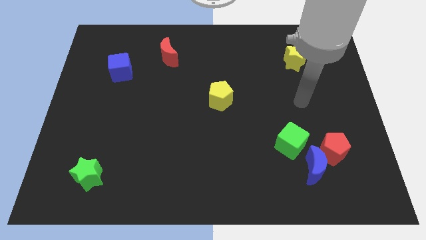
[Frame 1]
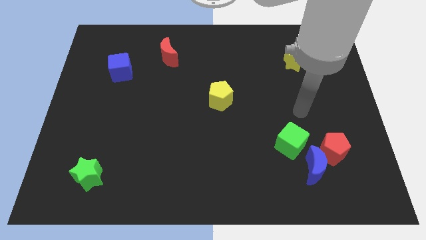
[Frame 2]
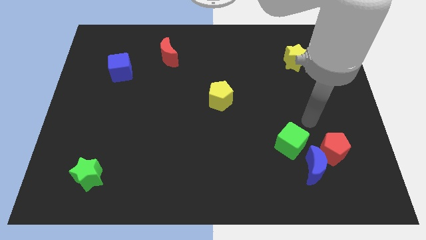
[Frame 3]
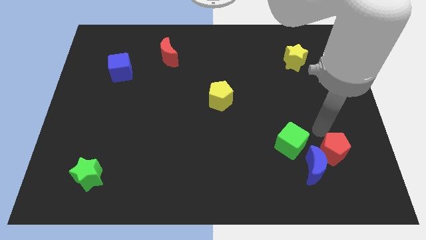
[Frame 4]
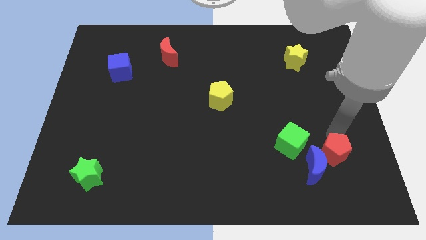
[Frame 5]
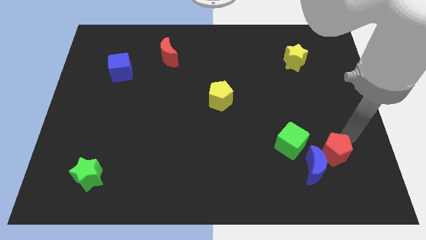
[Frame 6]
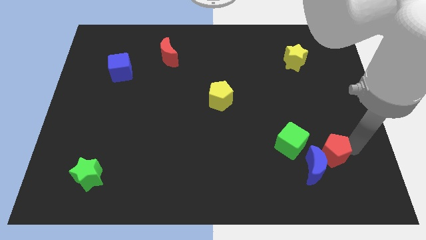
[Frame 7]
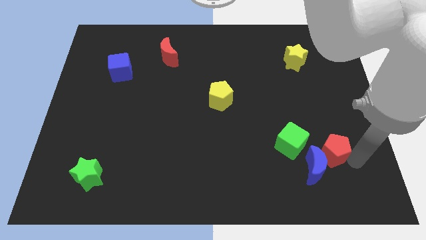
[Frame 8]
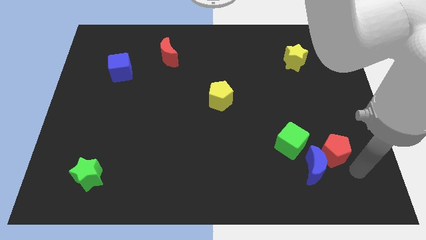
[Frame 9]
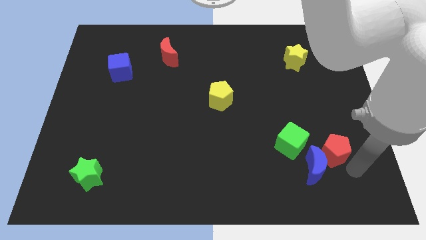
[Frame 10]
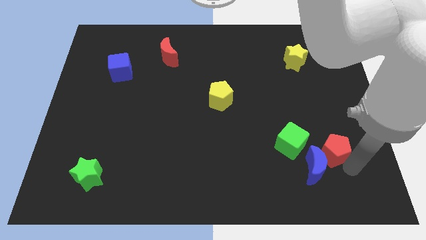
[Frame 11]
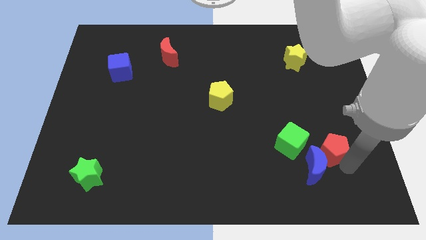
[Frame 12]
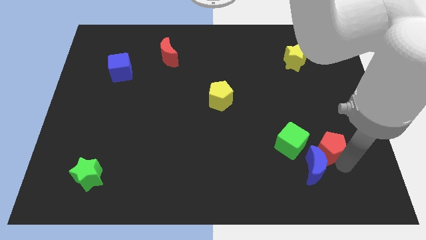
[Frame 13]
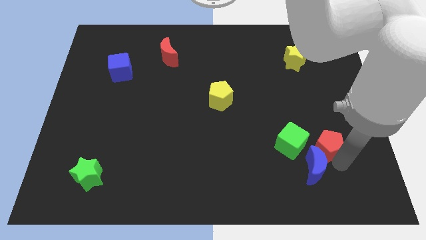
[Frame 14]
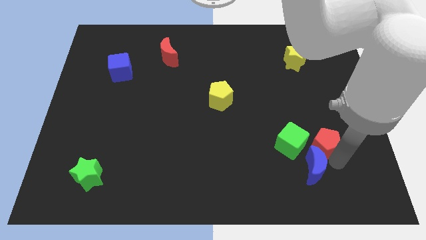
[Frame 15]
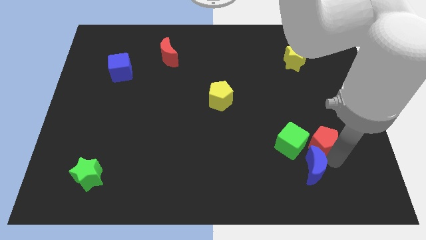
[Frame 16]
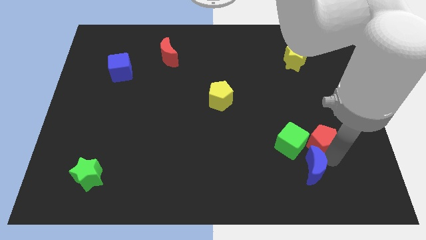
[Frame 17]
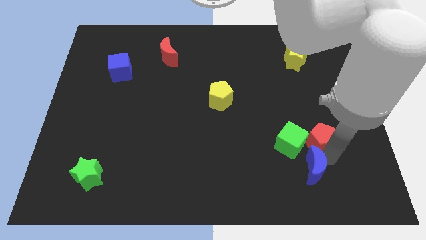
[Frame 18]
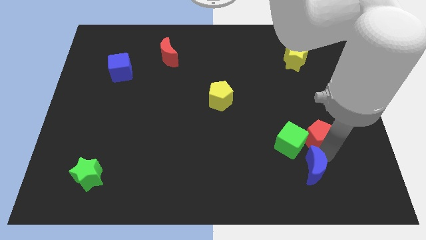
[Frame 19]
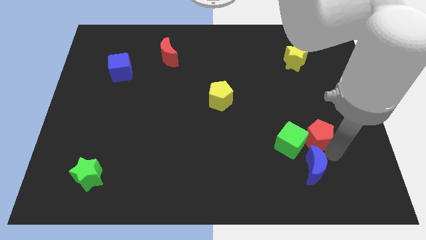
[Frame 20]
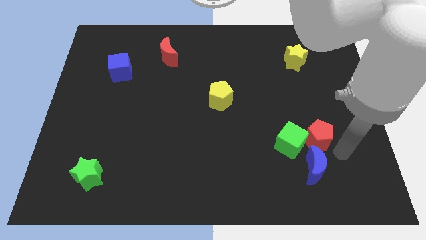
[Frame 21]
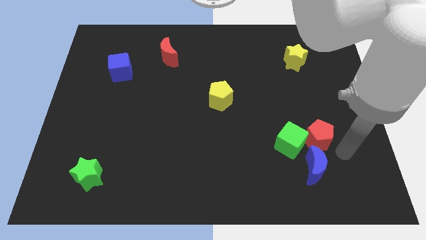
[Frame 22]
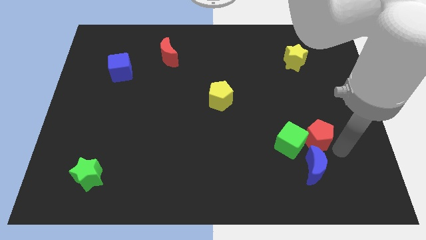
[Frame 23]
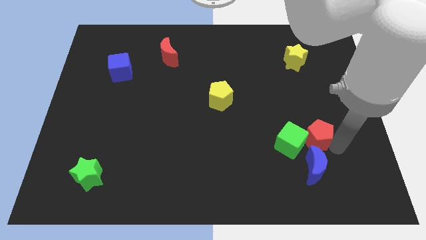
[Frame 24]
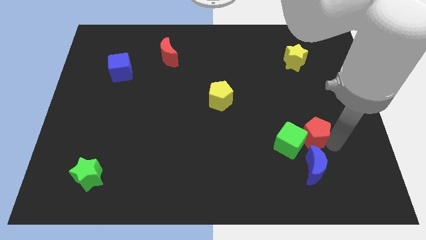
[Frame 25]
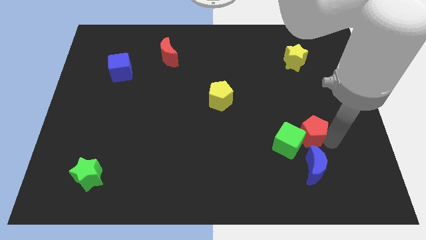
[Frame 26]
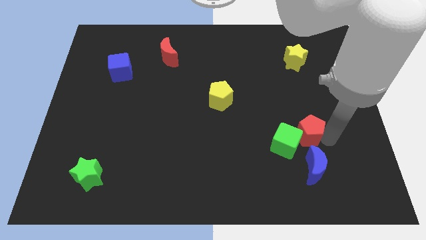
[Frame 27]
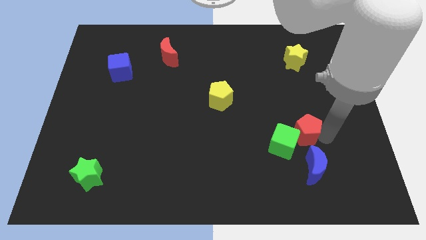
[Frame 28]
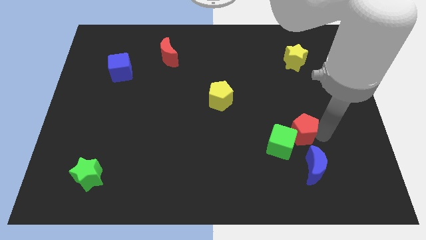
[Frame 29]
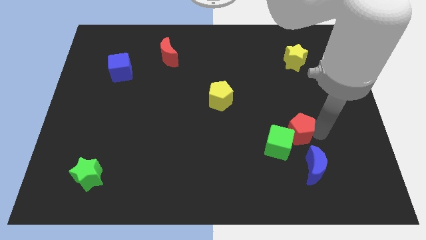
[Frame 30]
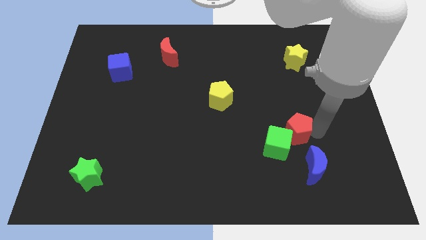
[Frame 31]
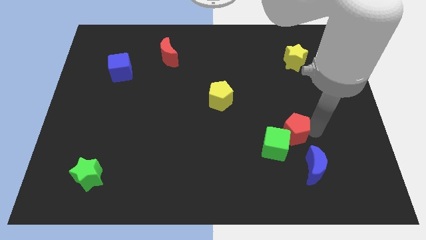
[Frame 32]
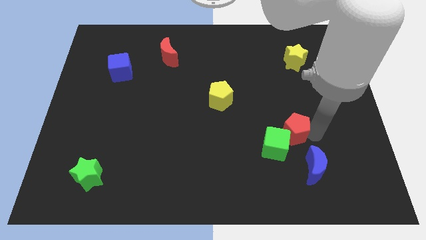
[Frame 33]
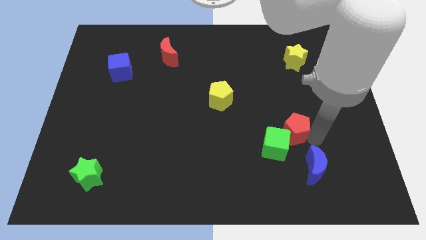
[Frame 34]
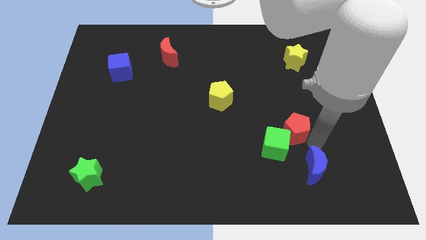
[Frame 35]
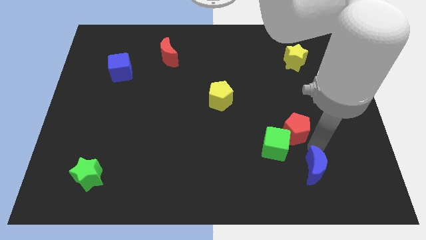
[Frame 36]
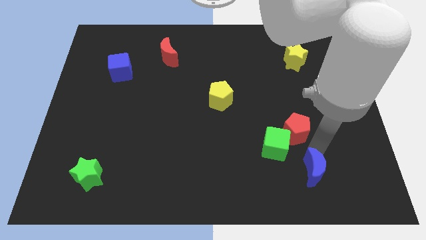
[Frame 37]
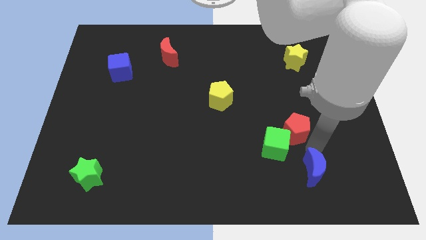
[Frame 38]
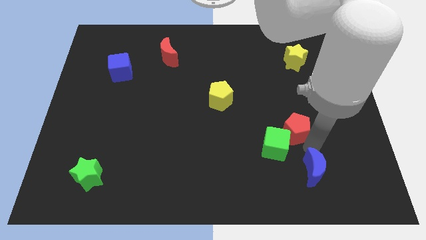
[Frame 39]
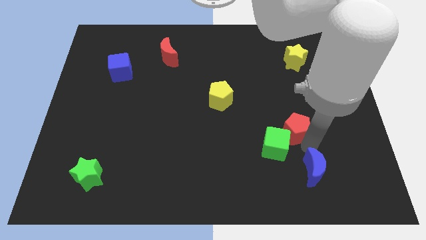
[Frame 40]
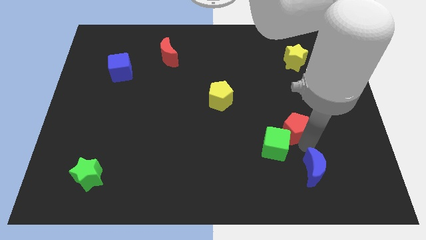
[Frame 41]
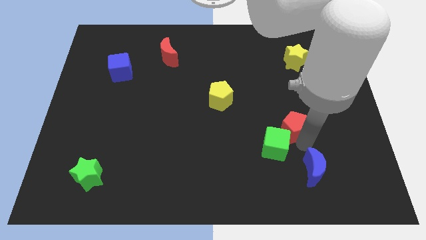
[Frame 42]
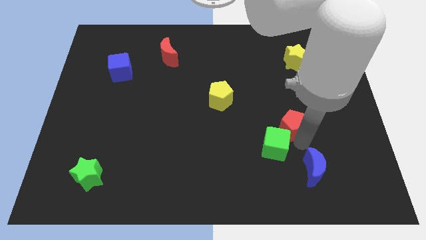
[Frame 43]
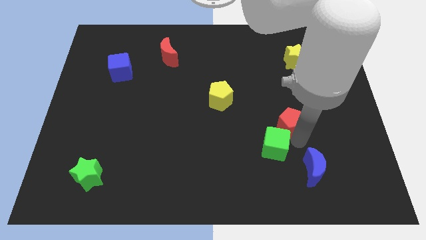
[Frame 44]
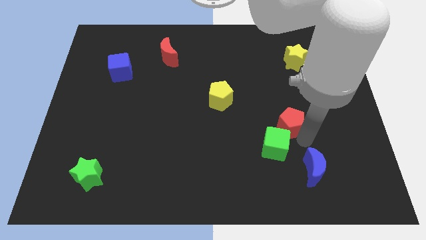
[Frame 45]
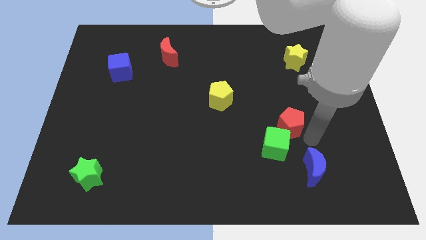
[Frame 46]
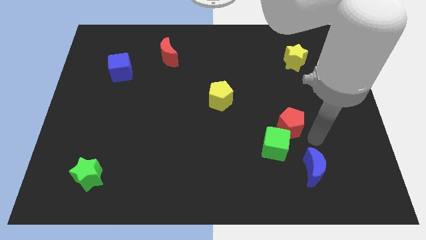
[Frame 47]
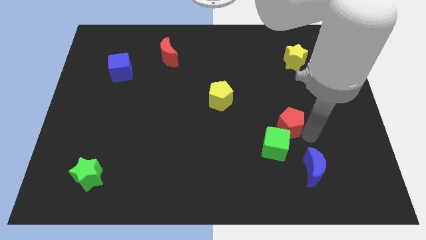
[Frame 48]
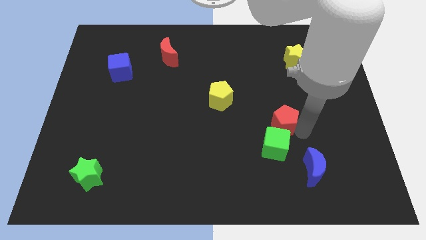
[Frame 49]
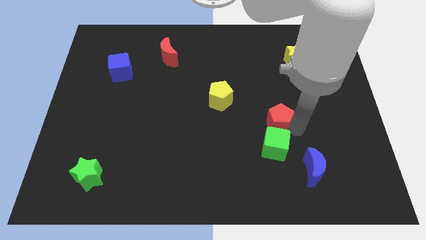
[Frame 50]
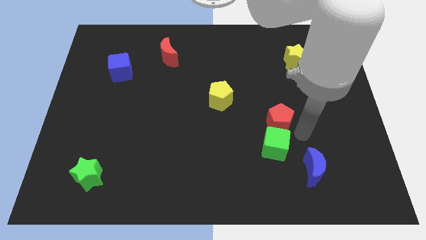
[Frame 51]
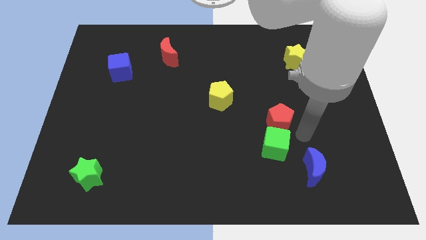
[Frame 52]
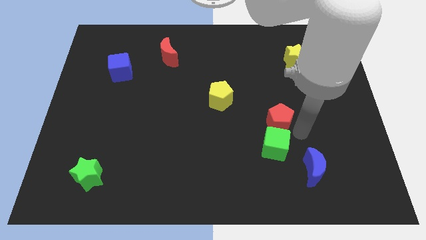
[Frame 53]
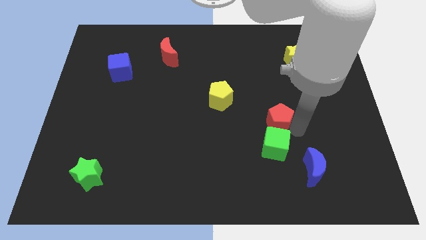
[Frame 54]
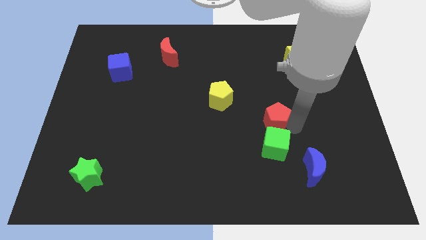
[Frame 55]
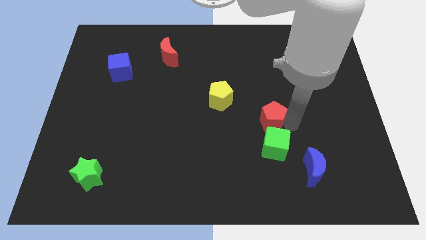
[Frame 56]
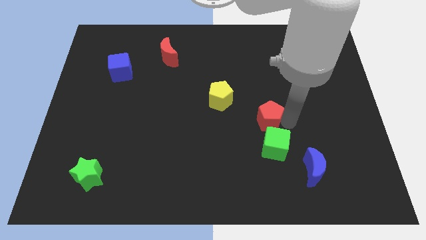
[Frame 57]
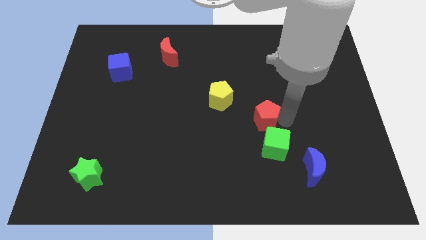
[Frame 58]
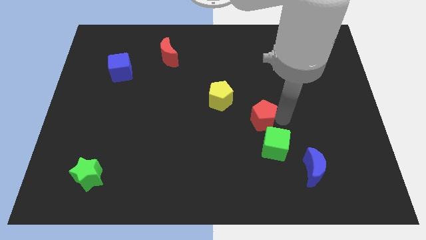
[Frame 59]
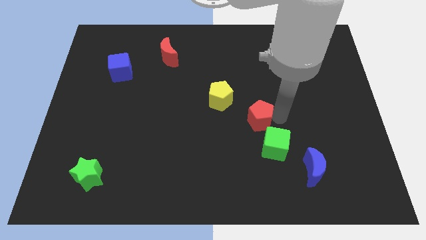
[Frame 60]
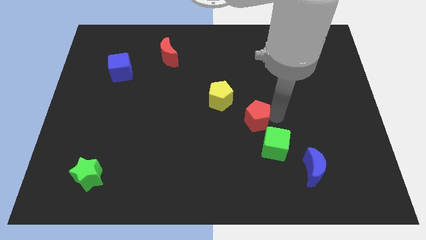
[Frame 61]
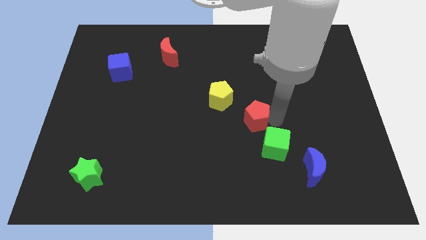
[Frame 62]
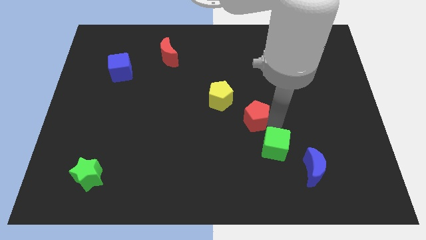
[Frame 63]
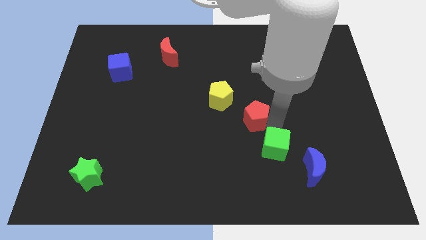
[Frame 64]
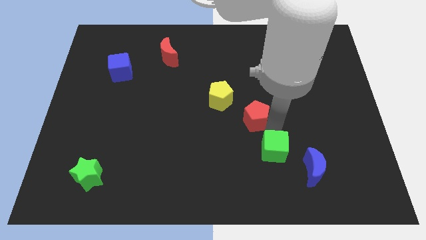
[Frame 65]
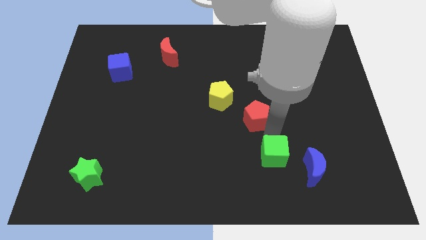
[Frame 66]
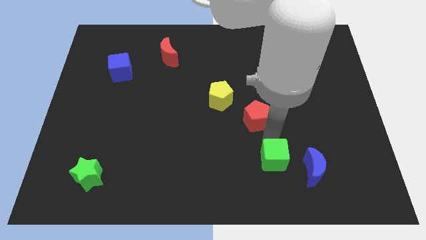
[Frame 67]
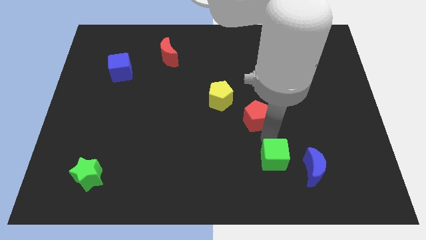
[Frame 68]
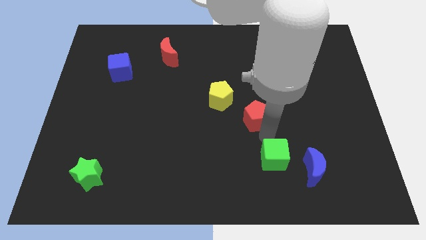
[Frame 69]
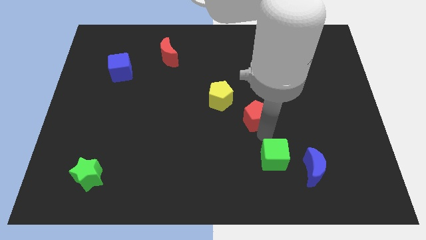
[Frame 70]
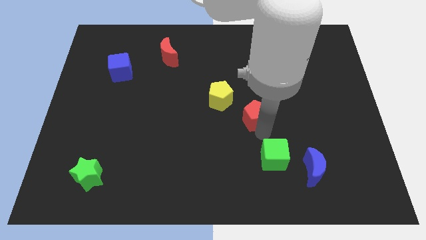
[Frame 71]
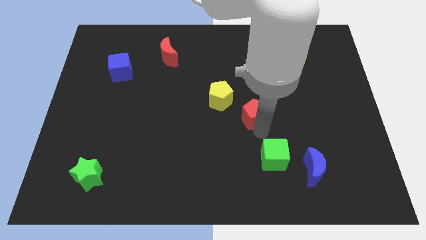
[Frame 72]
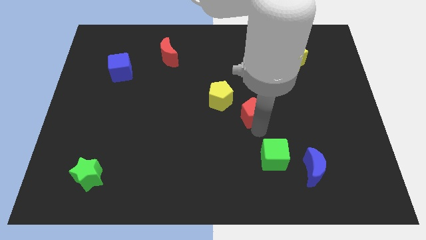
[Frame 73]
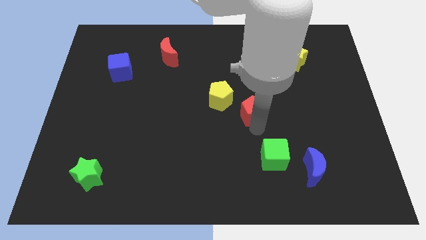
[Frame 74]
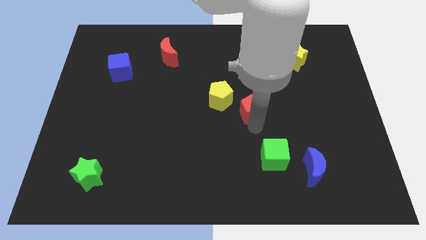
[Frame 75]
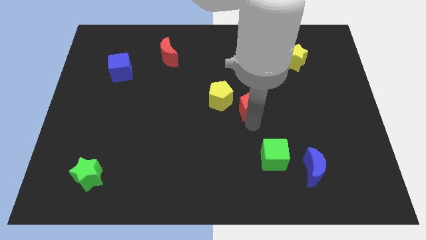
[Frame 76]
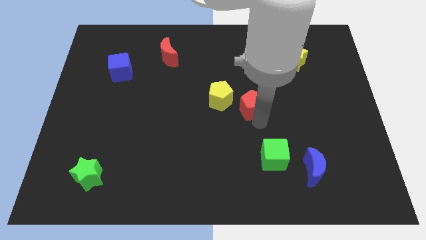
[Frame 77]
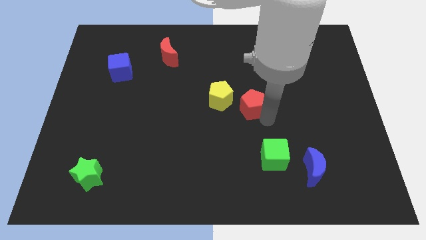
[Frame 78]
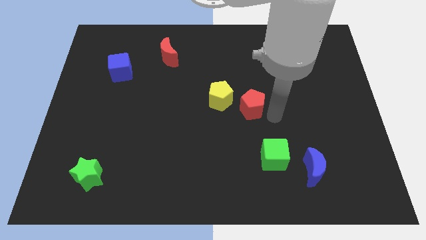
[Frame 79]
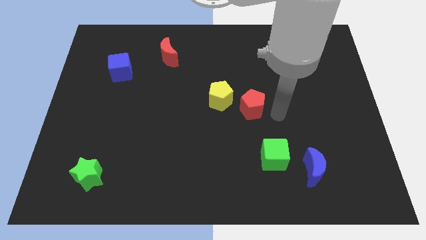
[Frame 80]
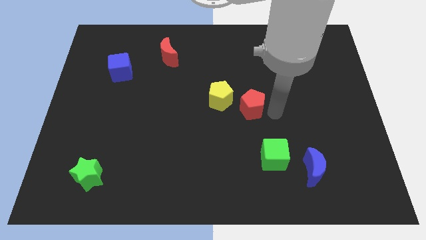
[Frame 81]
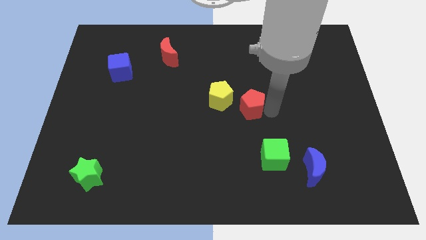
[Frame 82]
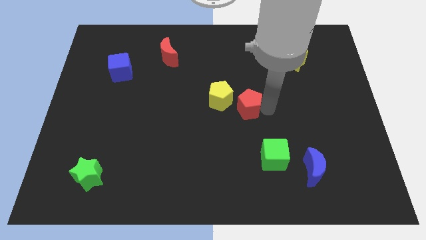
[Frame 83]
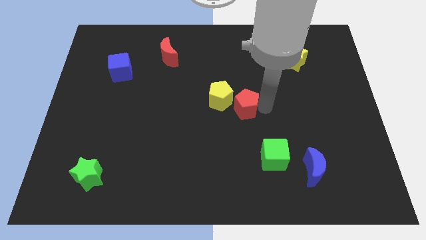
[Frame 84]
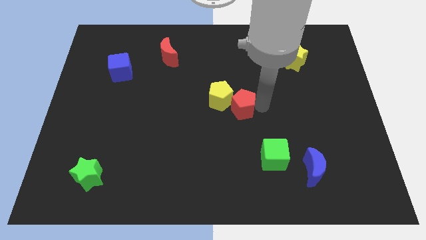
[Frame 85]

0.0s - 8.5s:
slide the red pentagon next to the yellow pentagon
